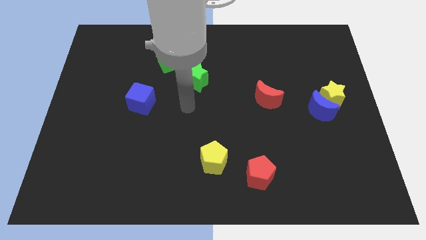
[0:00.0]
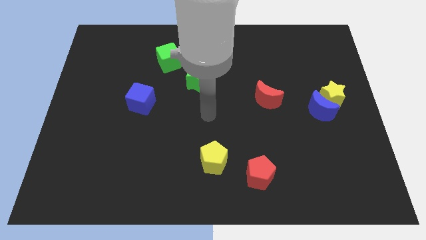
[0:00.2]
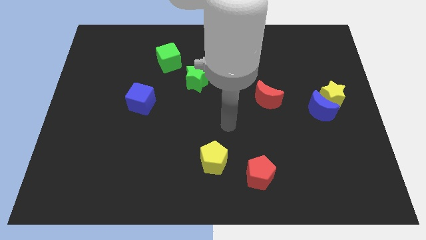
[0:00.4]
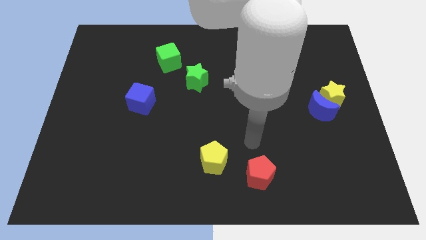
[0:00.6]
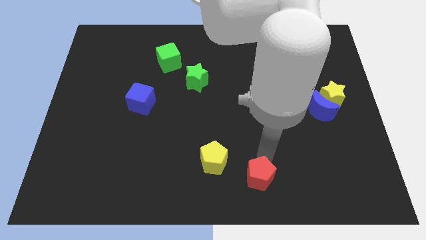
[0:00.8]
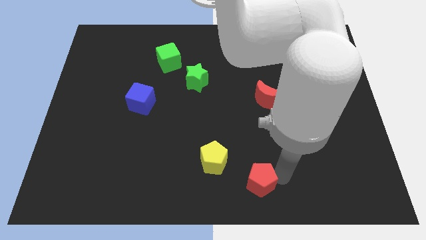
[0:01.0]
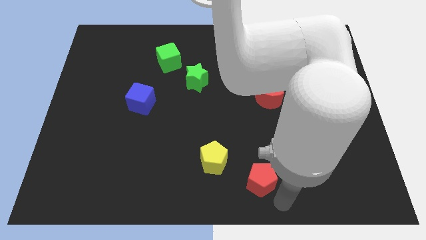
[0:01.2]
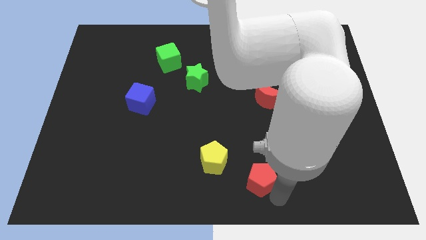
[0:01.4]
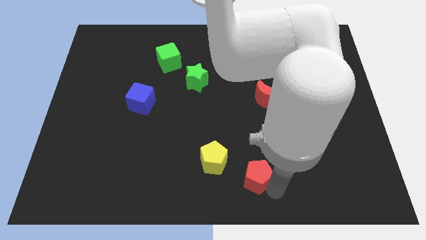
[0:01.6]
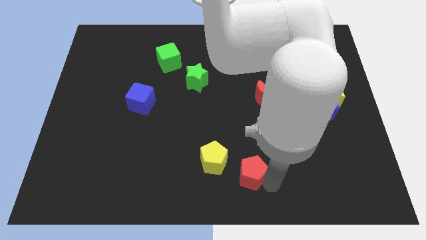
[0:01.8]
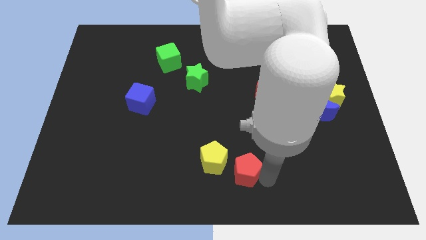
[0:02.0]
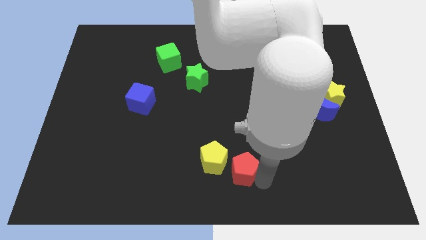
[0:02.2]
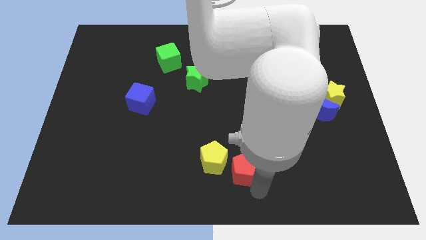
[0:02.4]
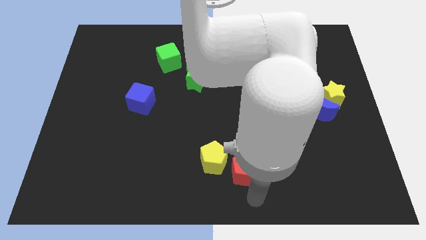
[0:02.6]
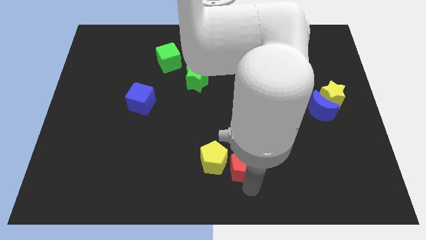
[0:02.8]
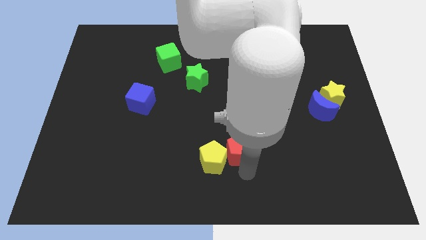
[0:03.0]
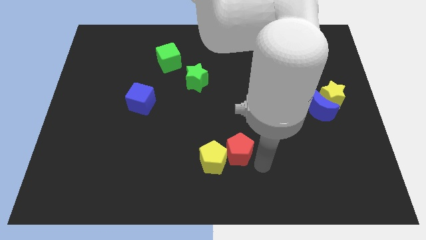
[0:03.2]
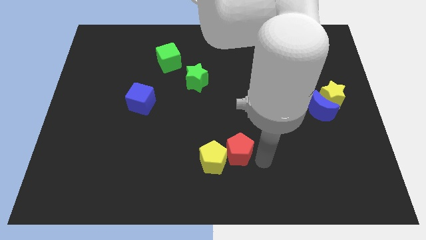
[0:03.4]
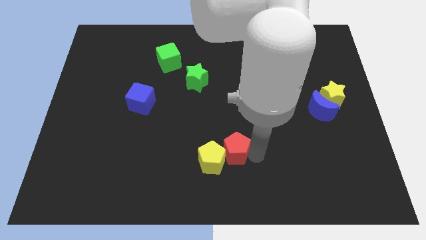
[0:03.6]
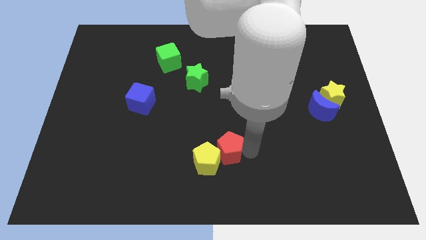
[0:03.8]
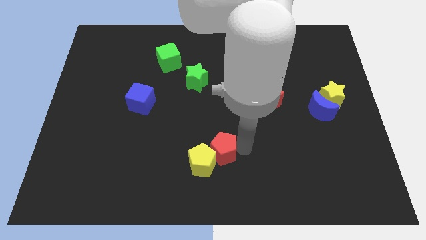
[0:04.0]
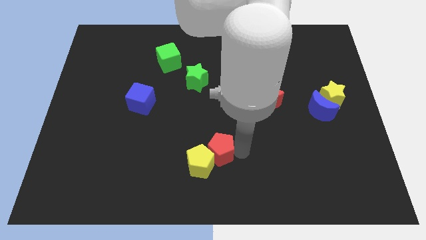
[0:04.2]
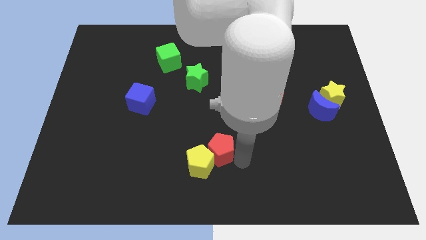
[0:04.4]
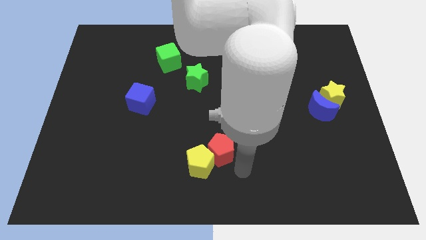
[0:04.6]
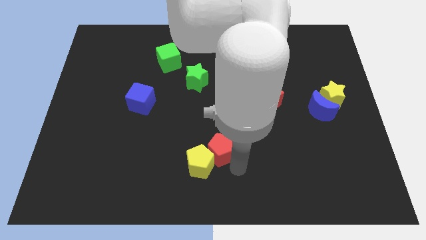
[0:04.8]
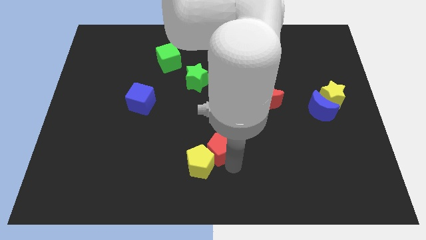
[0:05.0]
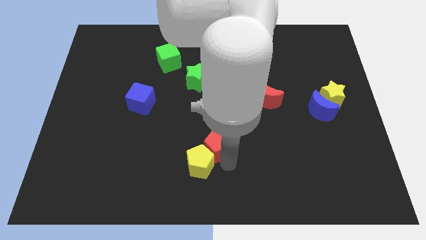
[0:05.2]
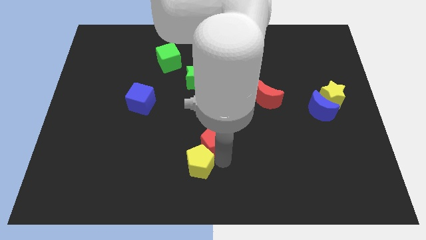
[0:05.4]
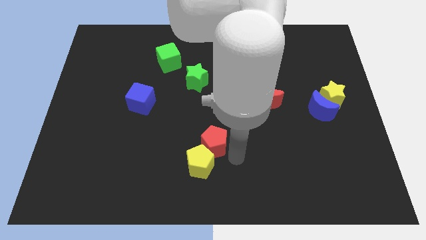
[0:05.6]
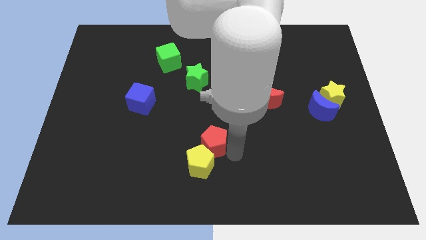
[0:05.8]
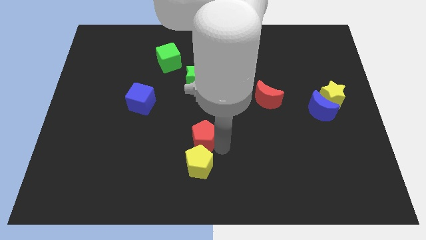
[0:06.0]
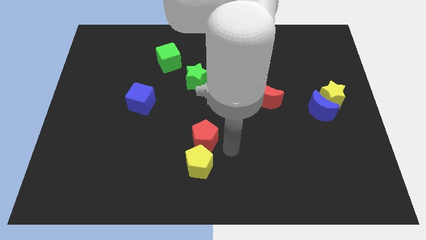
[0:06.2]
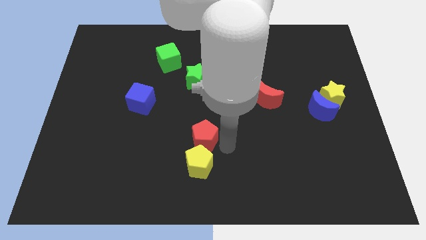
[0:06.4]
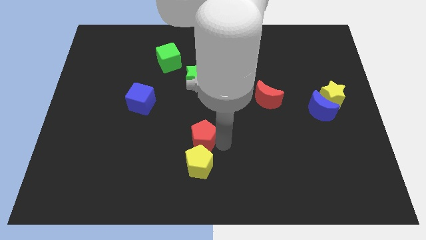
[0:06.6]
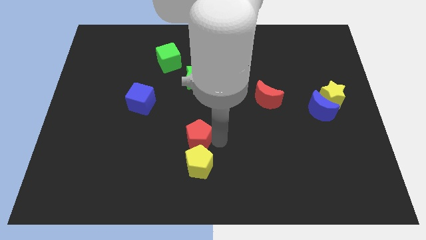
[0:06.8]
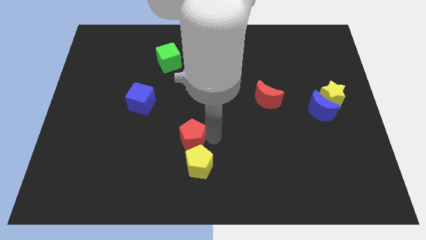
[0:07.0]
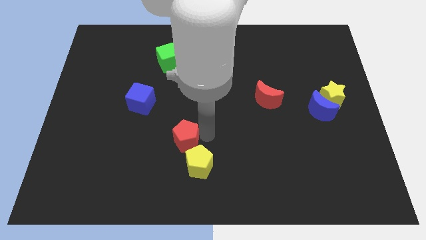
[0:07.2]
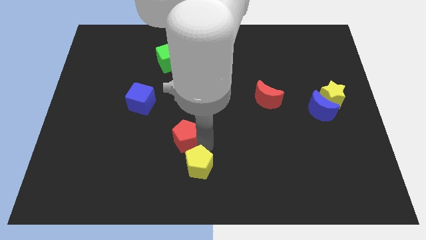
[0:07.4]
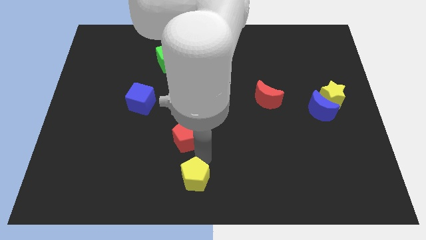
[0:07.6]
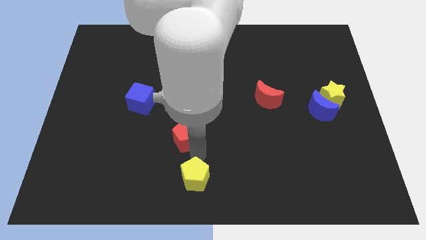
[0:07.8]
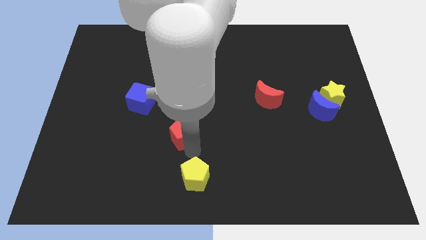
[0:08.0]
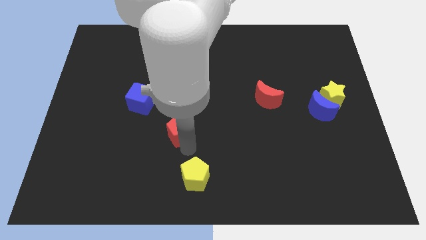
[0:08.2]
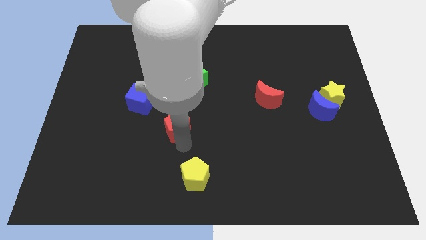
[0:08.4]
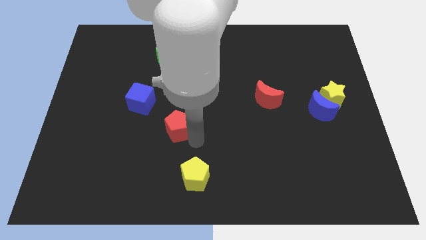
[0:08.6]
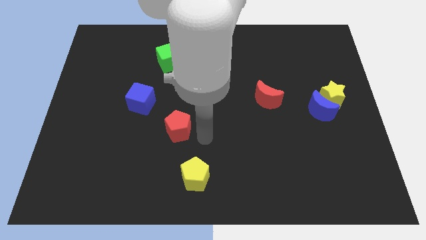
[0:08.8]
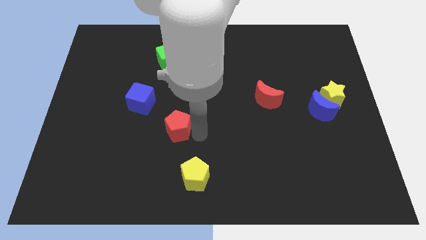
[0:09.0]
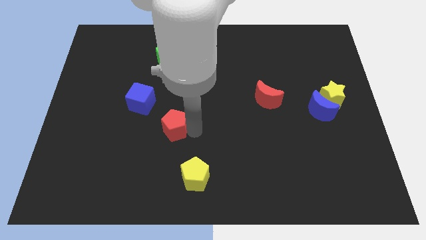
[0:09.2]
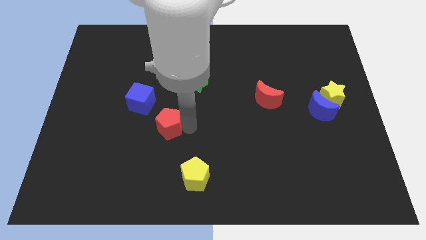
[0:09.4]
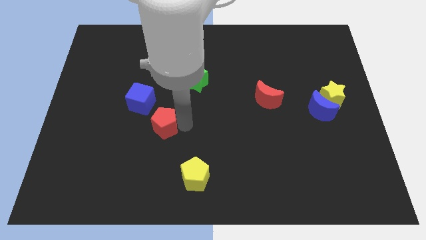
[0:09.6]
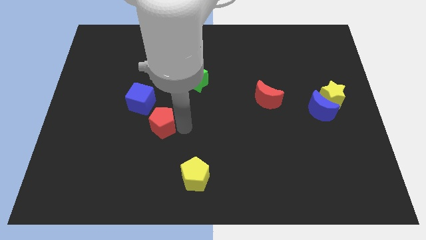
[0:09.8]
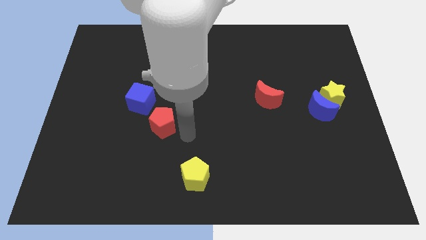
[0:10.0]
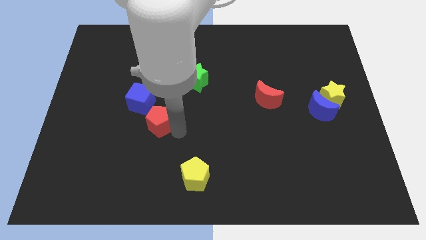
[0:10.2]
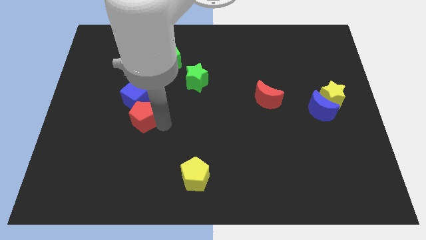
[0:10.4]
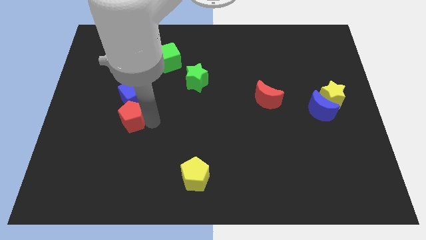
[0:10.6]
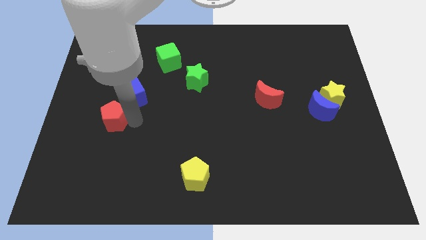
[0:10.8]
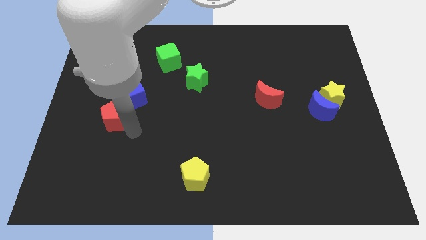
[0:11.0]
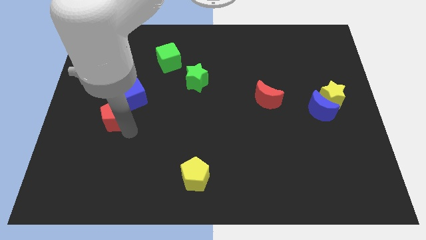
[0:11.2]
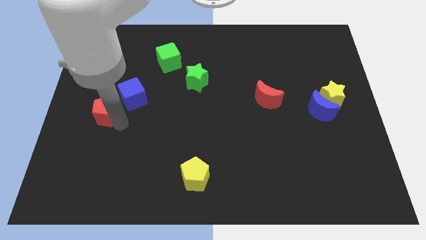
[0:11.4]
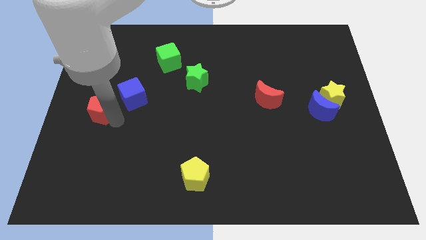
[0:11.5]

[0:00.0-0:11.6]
slide the red pentagon to the center left

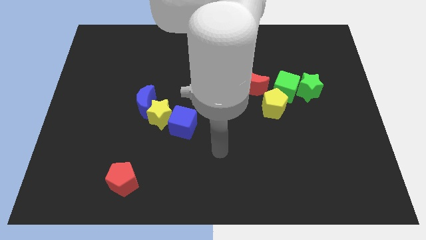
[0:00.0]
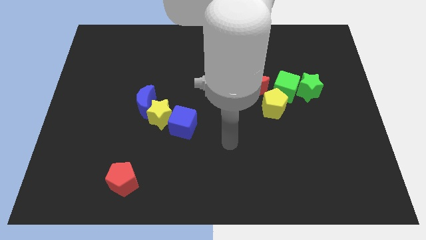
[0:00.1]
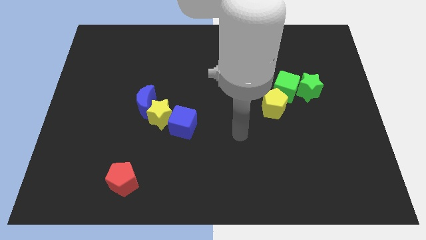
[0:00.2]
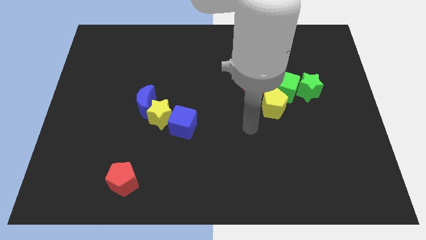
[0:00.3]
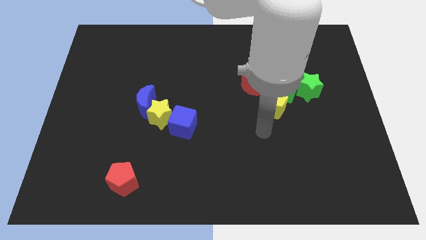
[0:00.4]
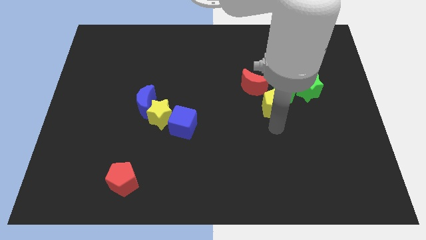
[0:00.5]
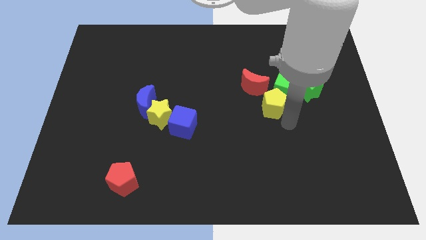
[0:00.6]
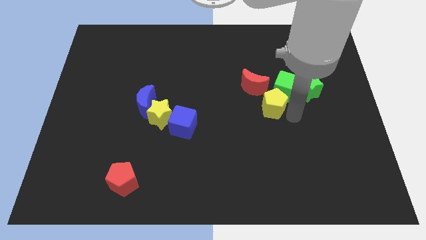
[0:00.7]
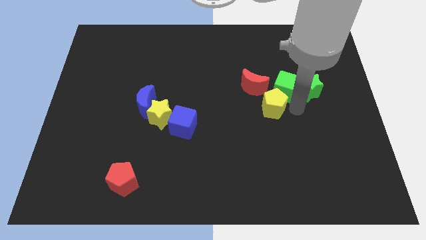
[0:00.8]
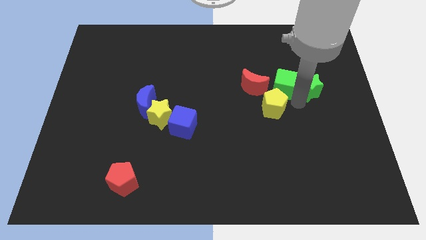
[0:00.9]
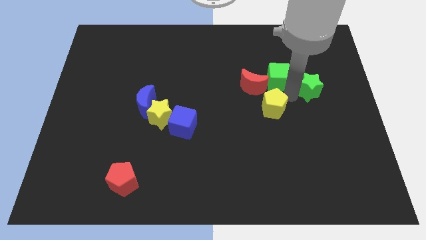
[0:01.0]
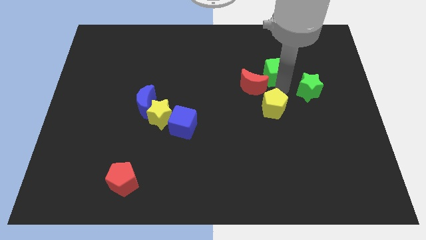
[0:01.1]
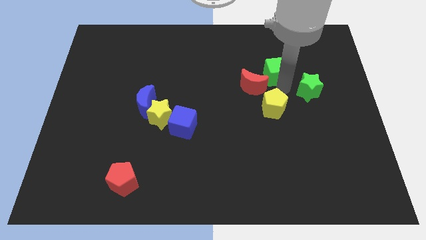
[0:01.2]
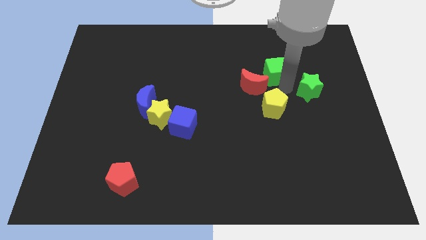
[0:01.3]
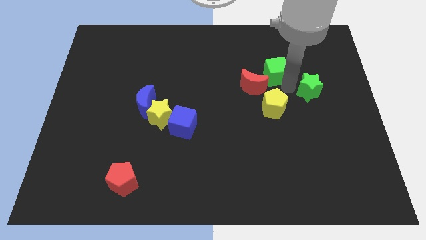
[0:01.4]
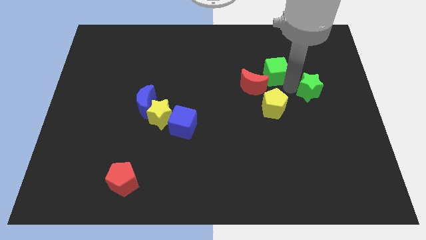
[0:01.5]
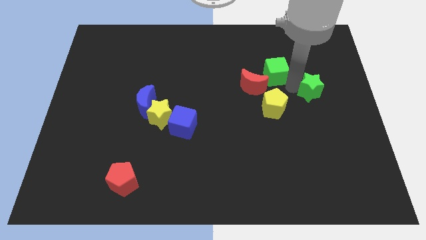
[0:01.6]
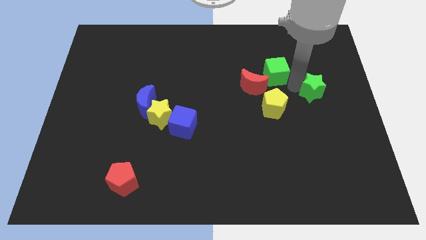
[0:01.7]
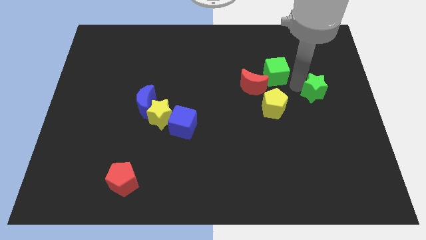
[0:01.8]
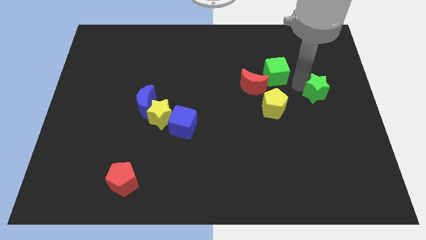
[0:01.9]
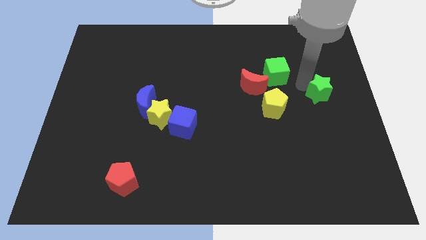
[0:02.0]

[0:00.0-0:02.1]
push the green star to the right side of the board

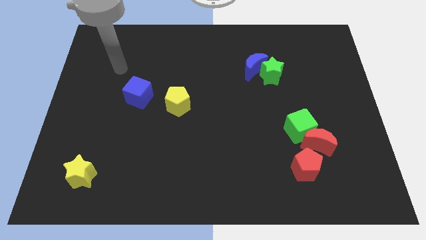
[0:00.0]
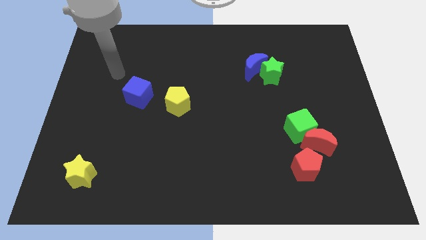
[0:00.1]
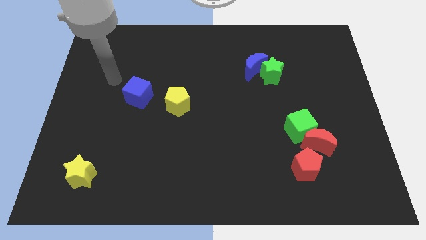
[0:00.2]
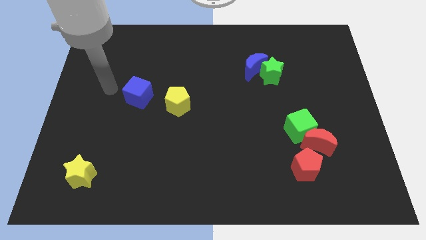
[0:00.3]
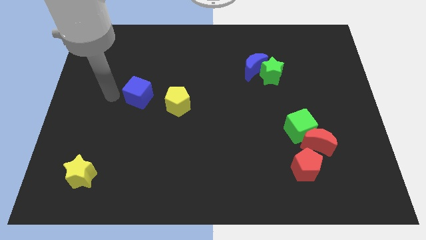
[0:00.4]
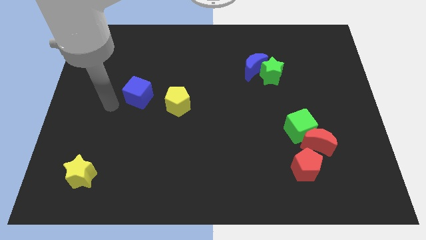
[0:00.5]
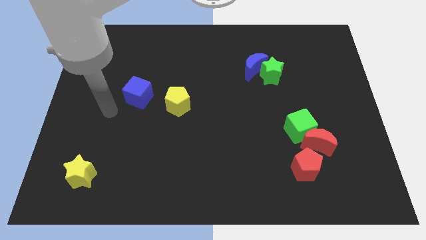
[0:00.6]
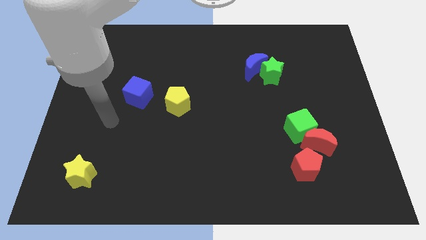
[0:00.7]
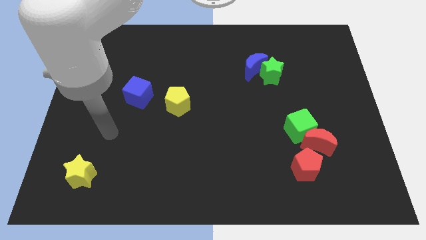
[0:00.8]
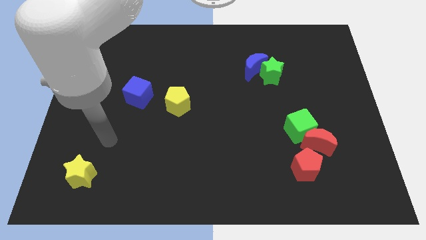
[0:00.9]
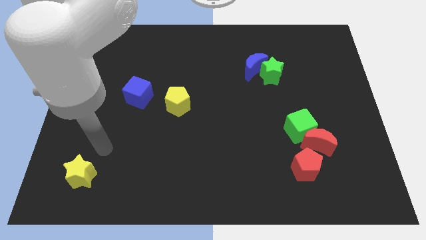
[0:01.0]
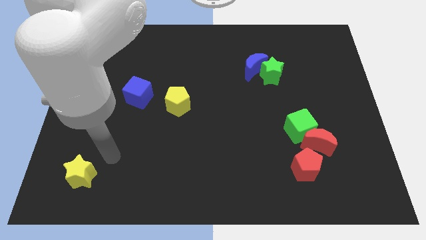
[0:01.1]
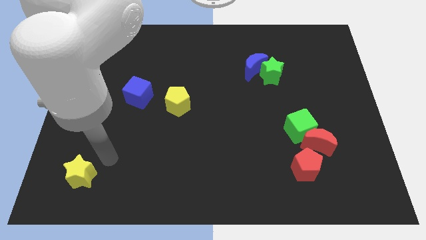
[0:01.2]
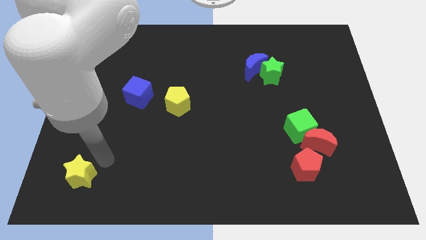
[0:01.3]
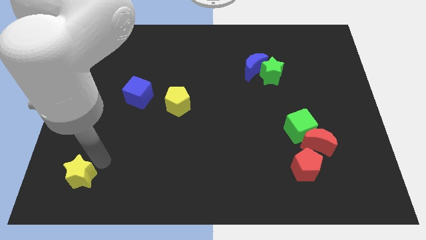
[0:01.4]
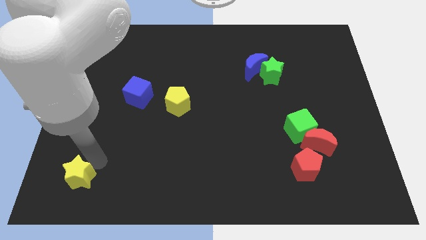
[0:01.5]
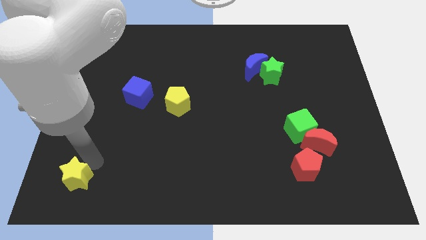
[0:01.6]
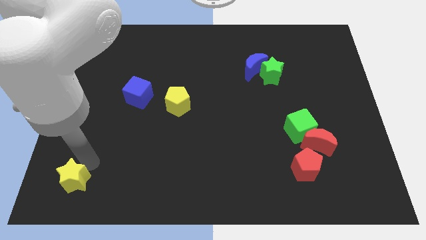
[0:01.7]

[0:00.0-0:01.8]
push the yellow star to the bottom left of the board
